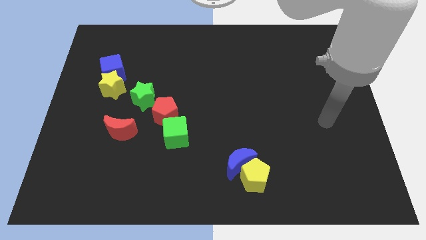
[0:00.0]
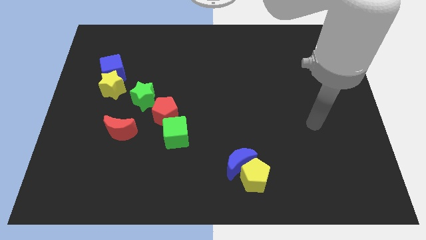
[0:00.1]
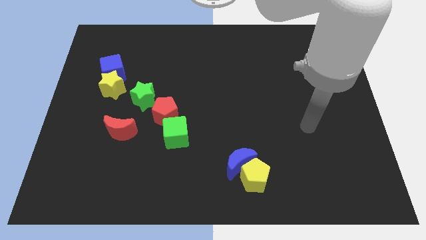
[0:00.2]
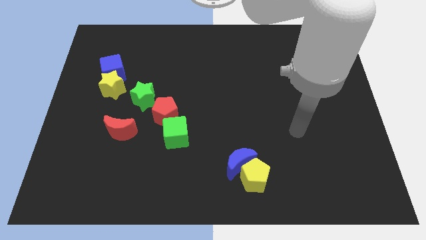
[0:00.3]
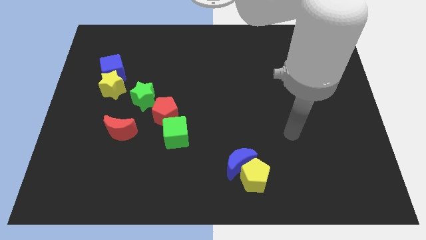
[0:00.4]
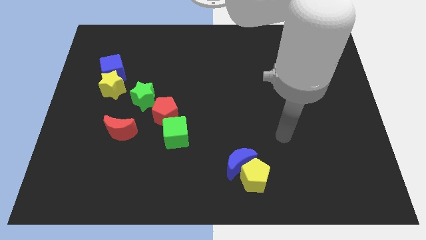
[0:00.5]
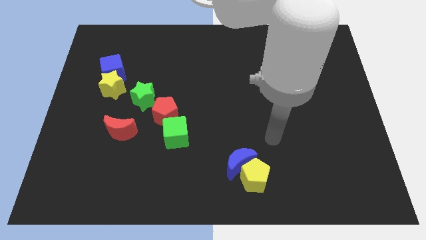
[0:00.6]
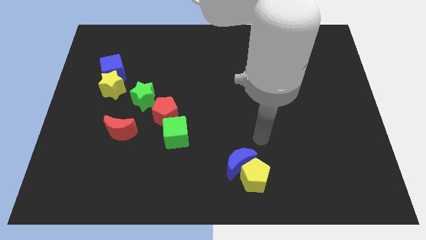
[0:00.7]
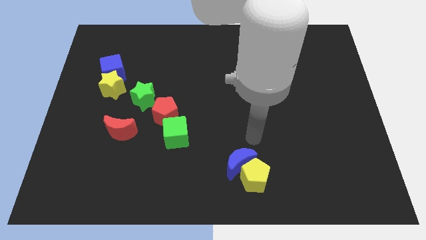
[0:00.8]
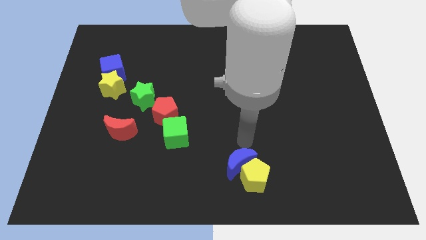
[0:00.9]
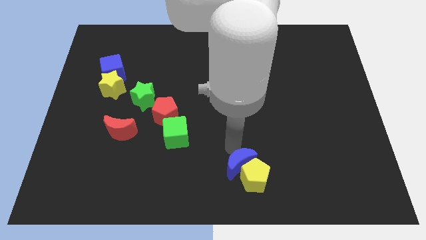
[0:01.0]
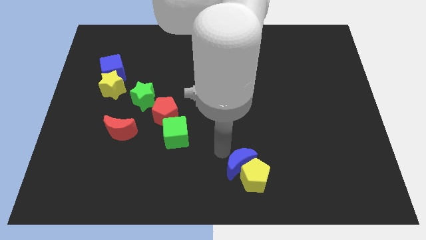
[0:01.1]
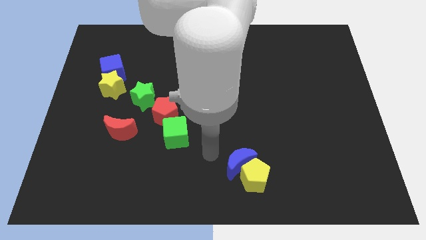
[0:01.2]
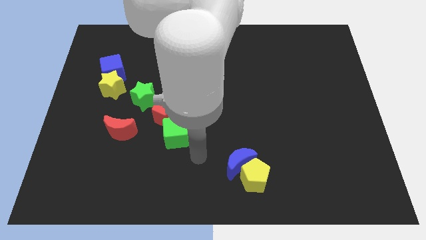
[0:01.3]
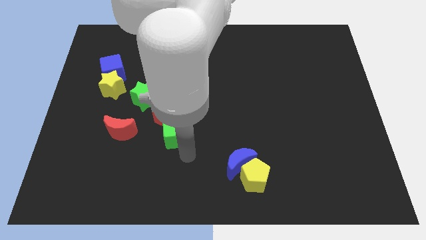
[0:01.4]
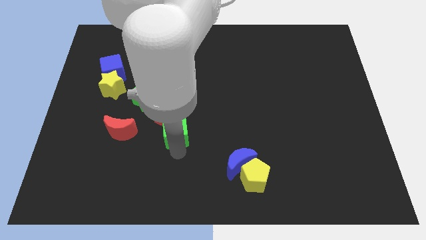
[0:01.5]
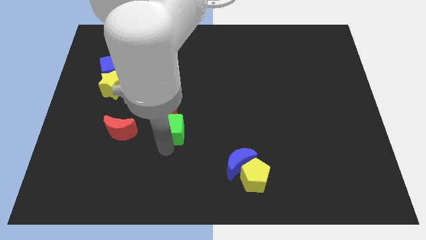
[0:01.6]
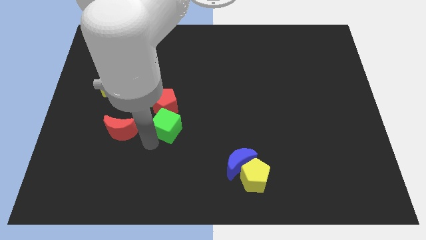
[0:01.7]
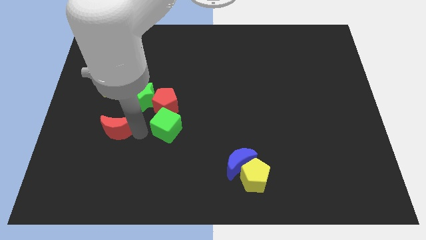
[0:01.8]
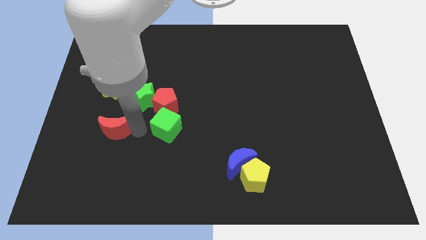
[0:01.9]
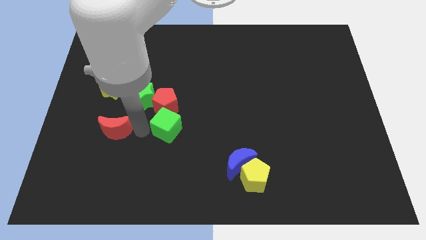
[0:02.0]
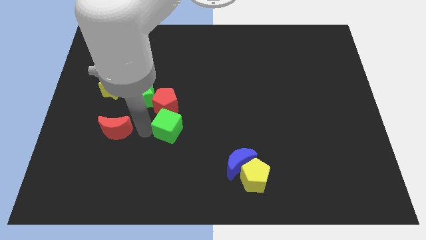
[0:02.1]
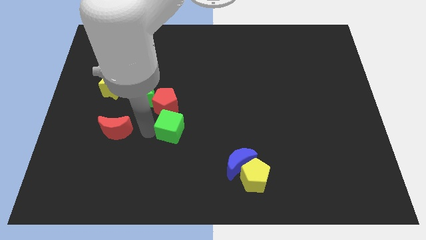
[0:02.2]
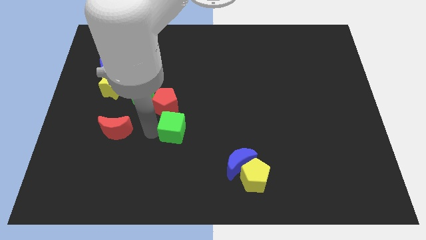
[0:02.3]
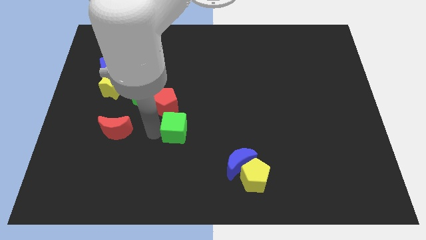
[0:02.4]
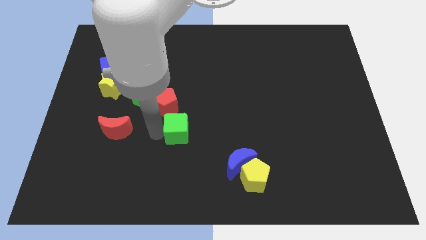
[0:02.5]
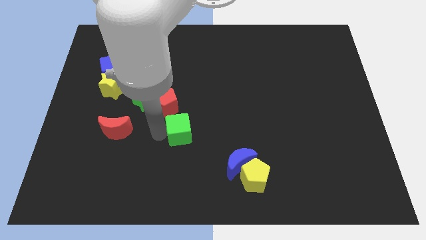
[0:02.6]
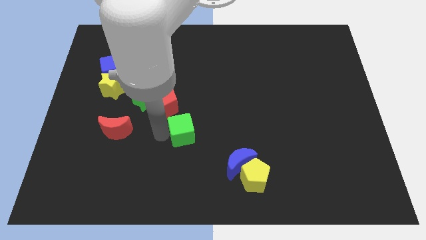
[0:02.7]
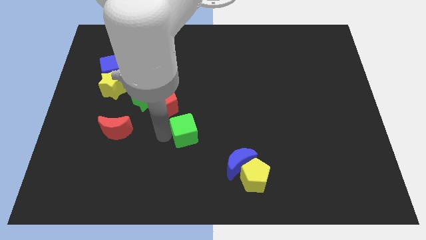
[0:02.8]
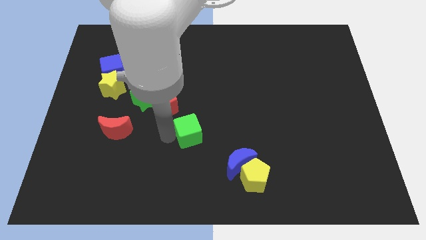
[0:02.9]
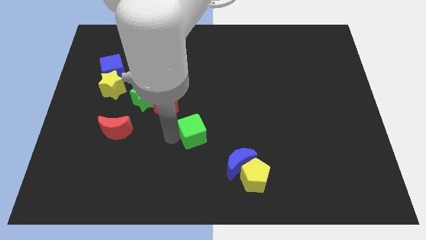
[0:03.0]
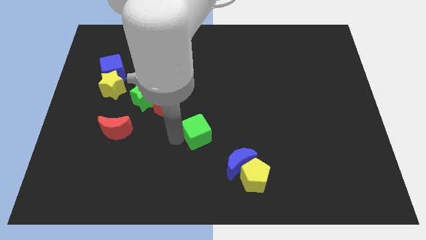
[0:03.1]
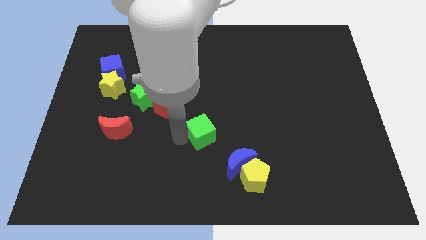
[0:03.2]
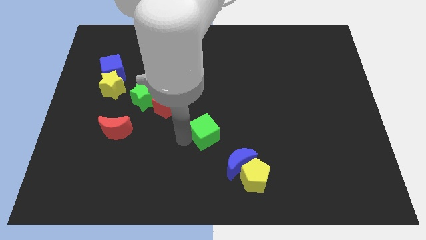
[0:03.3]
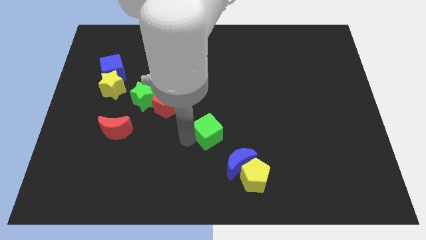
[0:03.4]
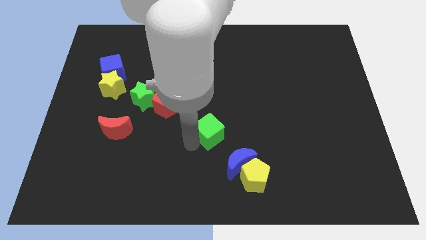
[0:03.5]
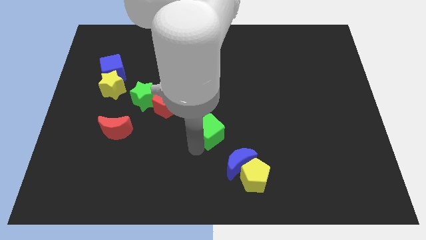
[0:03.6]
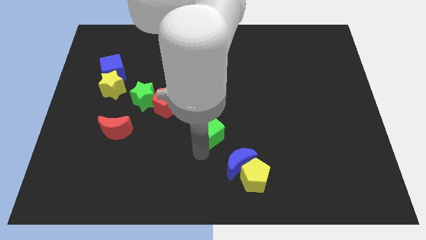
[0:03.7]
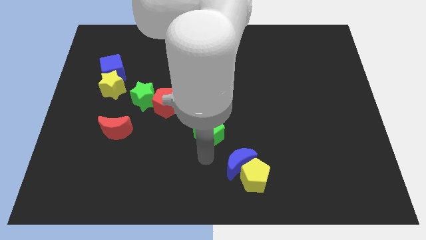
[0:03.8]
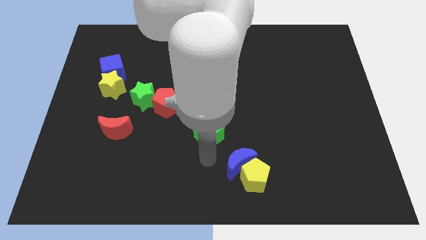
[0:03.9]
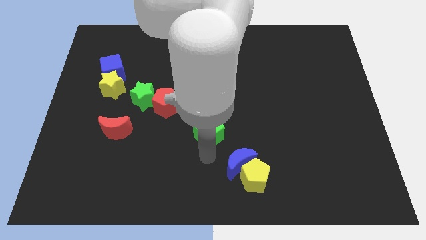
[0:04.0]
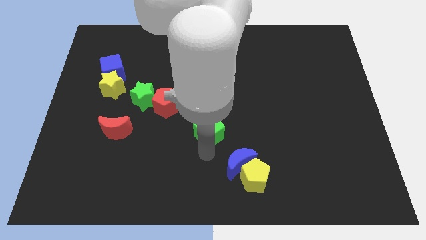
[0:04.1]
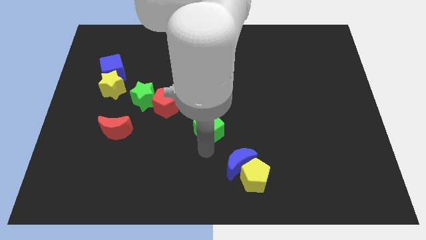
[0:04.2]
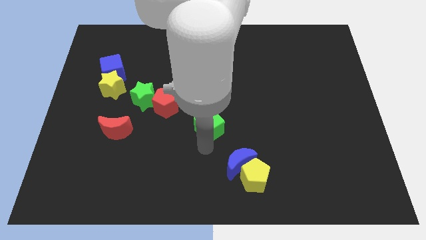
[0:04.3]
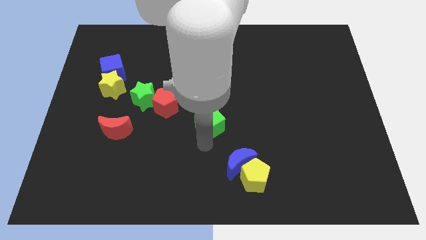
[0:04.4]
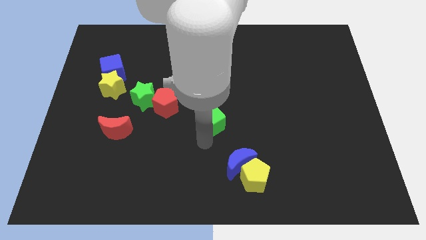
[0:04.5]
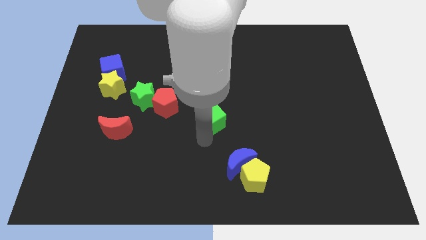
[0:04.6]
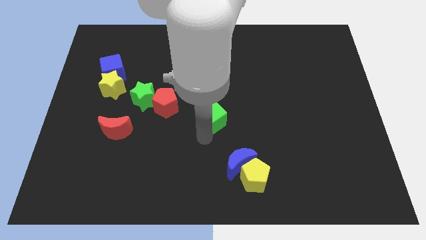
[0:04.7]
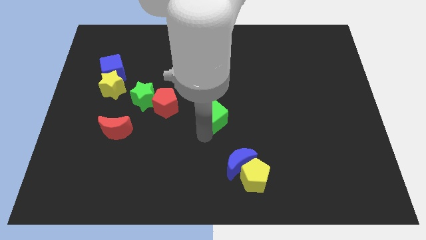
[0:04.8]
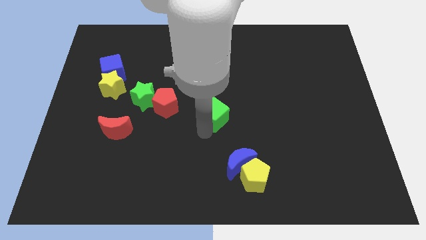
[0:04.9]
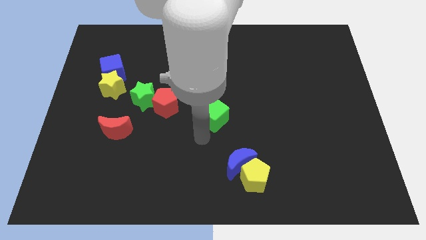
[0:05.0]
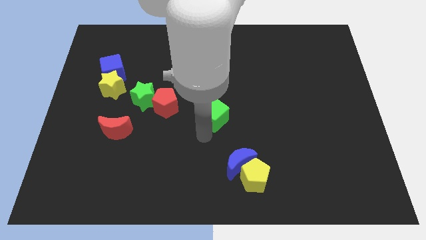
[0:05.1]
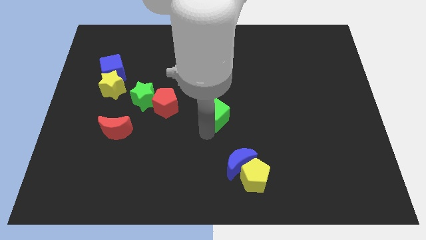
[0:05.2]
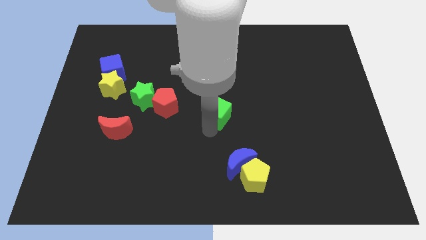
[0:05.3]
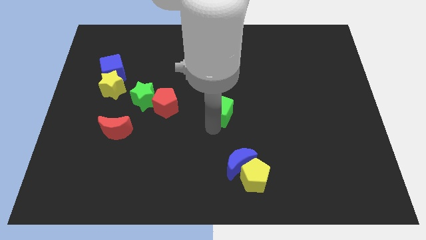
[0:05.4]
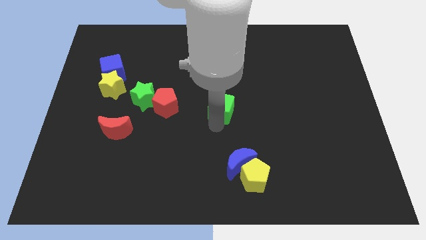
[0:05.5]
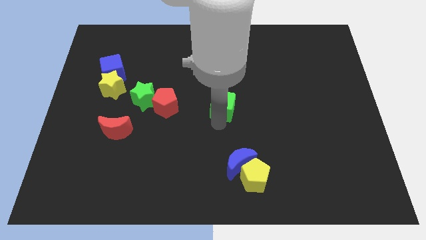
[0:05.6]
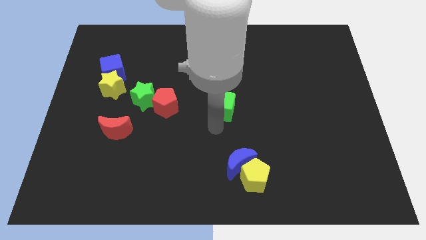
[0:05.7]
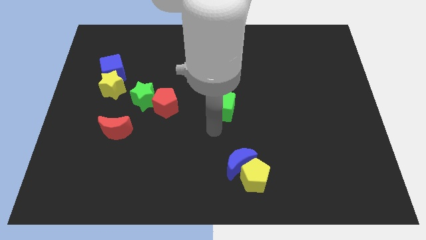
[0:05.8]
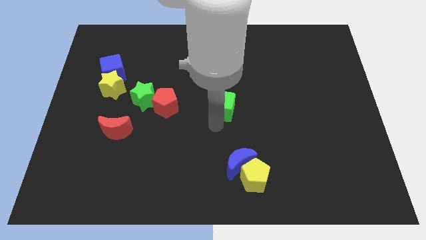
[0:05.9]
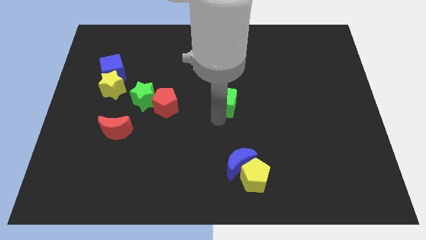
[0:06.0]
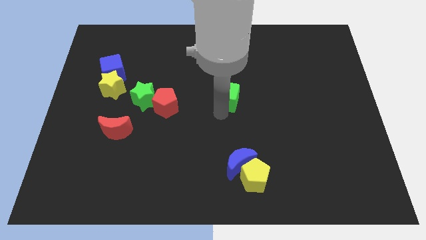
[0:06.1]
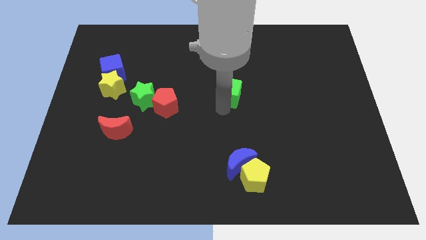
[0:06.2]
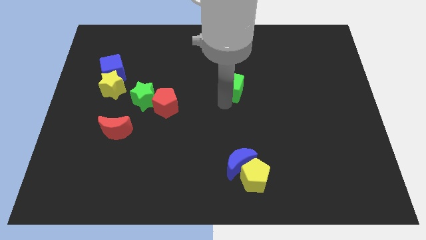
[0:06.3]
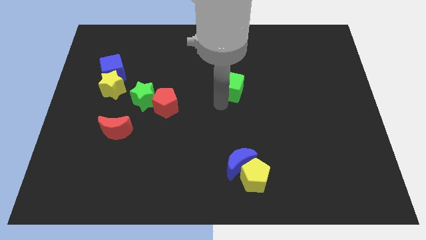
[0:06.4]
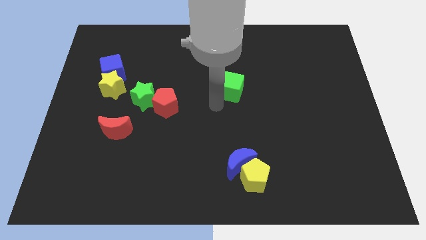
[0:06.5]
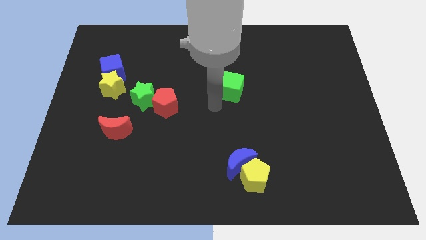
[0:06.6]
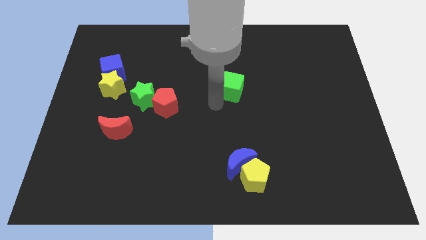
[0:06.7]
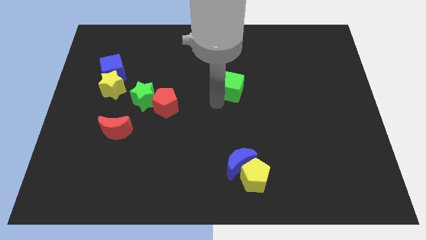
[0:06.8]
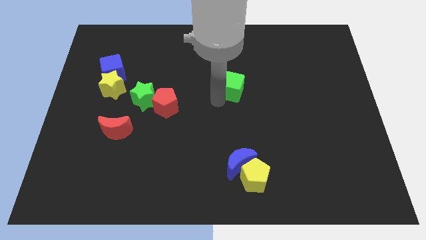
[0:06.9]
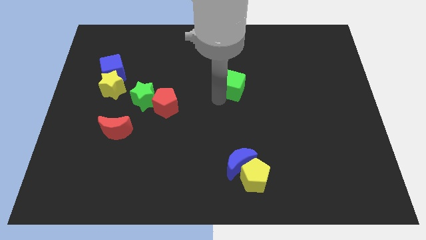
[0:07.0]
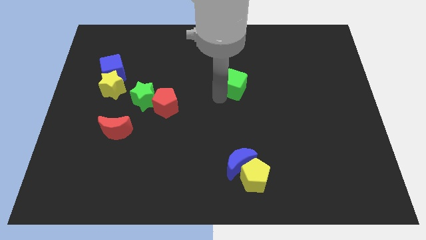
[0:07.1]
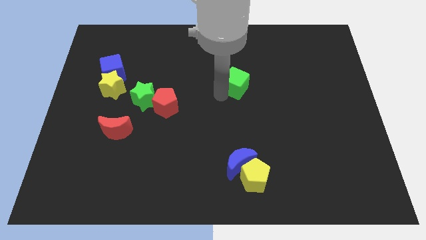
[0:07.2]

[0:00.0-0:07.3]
slide the green cube upwards and to the right

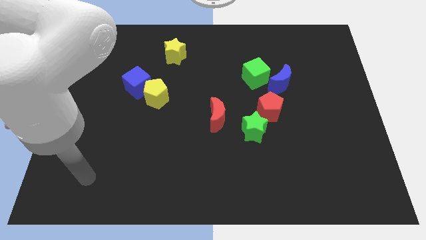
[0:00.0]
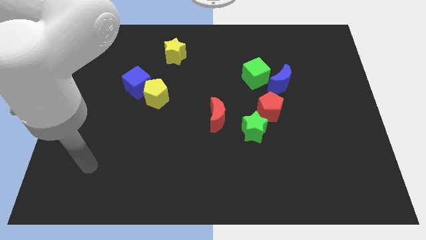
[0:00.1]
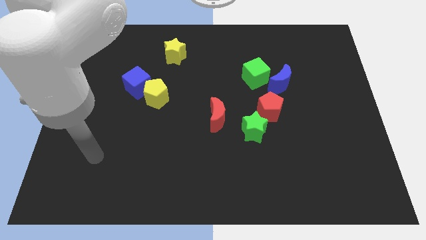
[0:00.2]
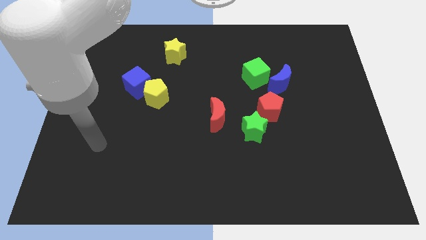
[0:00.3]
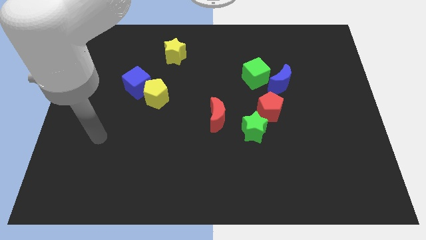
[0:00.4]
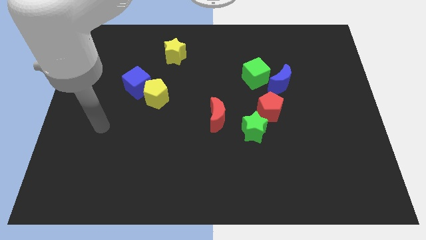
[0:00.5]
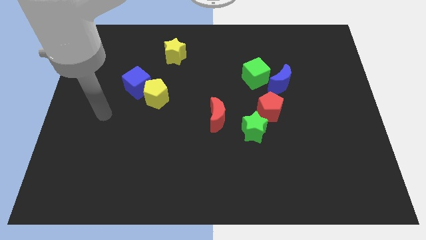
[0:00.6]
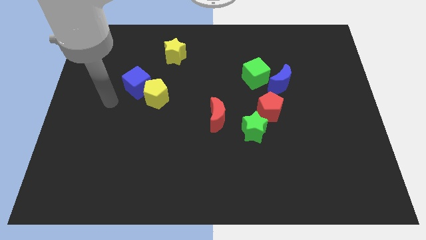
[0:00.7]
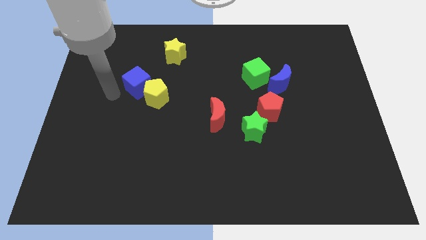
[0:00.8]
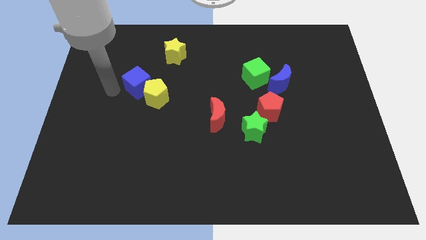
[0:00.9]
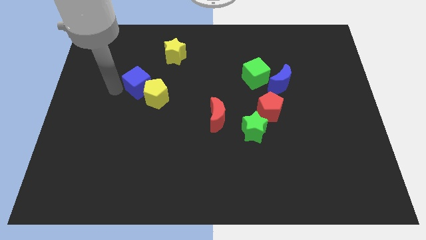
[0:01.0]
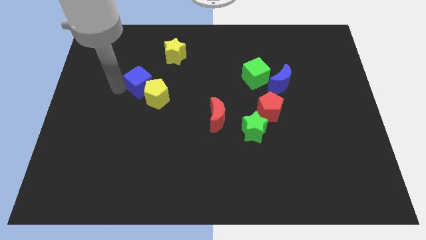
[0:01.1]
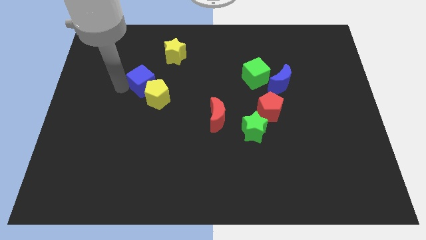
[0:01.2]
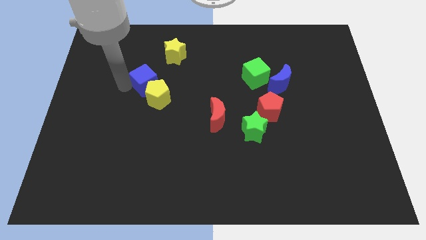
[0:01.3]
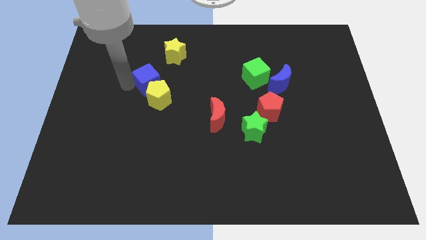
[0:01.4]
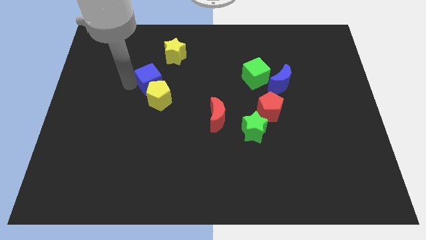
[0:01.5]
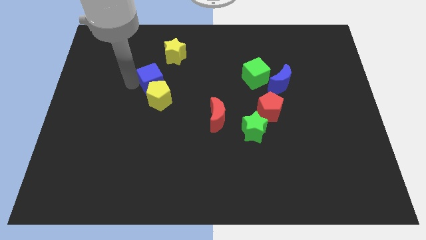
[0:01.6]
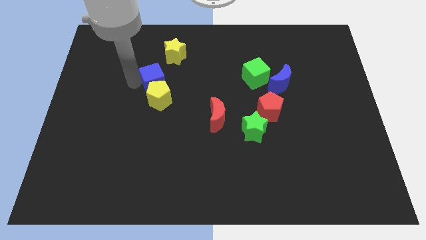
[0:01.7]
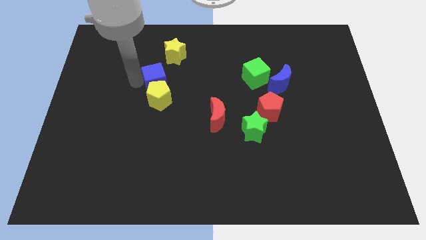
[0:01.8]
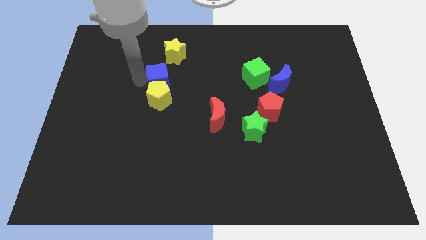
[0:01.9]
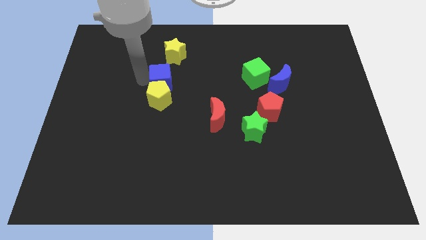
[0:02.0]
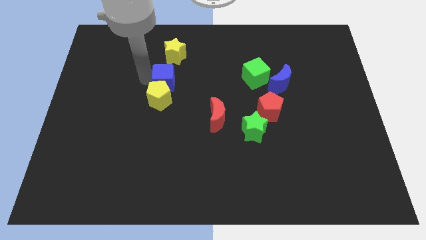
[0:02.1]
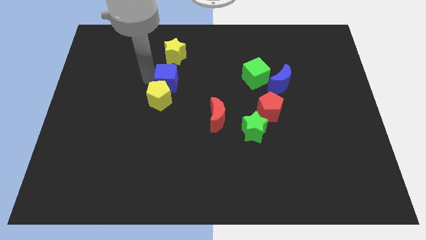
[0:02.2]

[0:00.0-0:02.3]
push the blue cube to the right slightly
